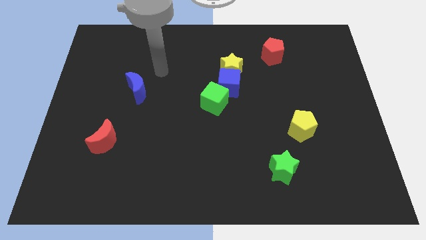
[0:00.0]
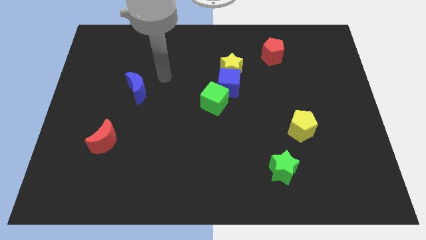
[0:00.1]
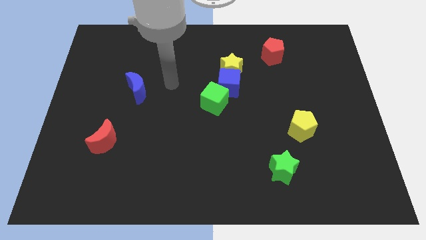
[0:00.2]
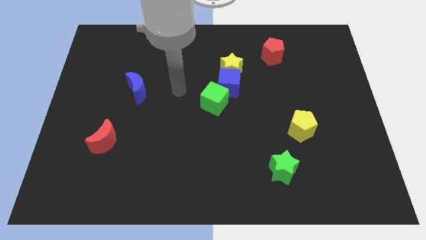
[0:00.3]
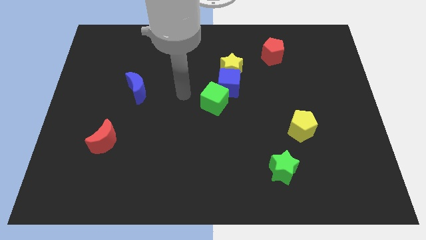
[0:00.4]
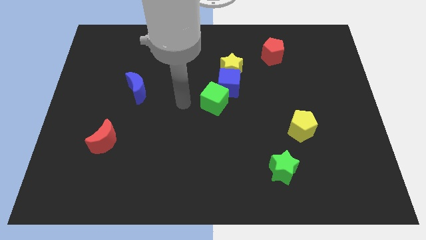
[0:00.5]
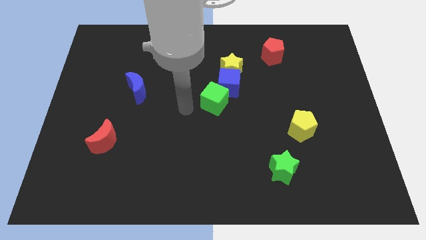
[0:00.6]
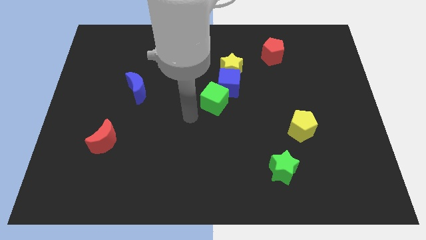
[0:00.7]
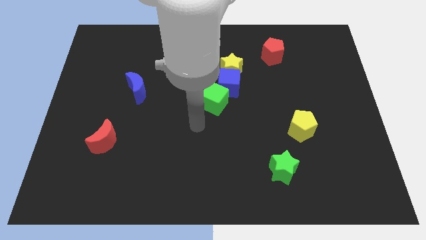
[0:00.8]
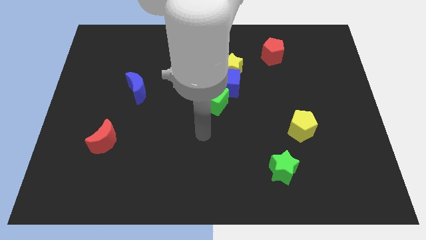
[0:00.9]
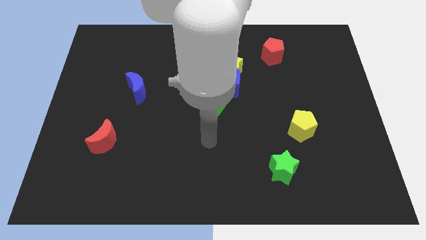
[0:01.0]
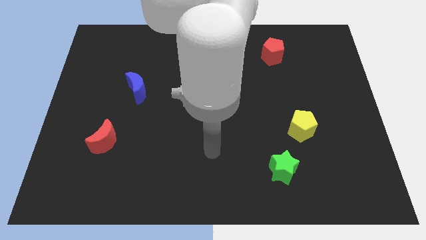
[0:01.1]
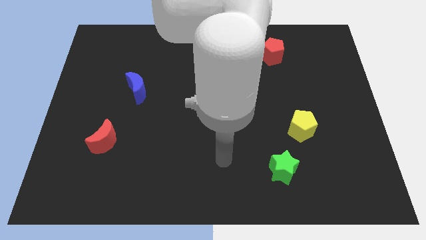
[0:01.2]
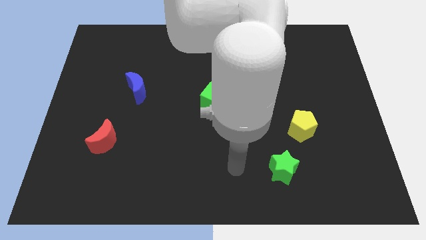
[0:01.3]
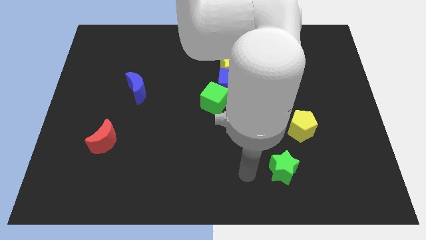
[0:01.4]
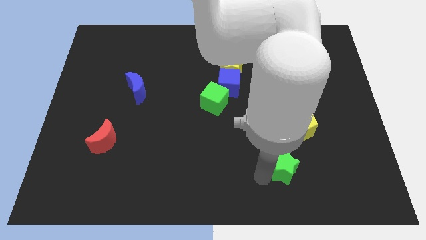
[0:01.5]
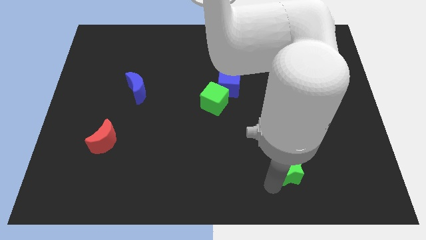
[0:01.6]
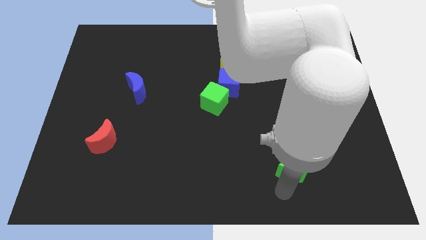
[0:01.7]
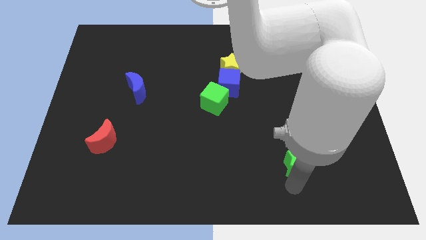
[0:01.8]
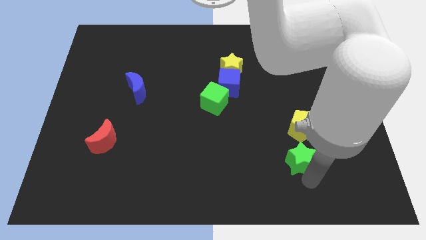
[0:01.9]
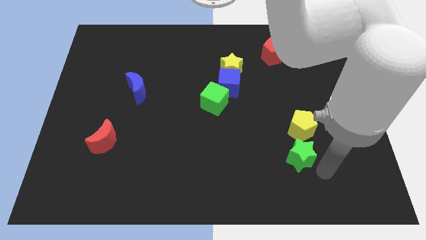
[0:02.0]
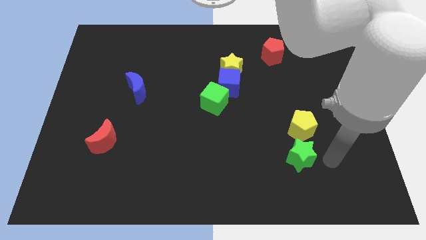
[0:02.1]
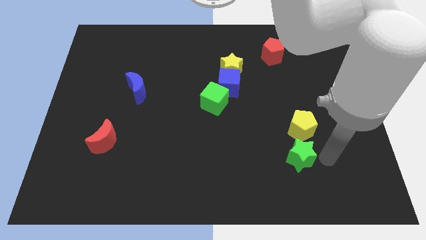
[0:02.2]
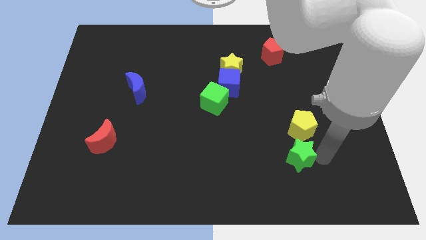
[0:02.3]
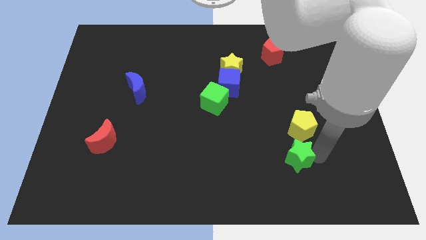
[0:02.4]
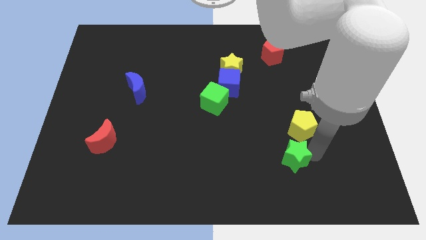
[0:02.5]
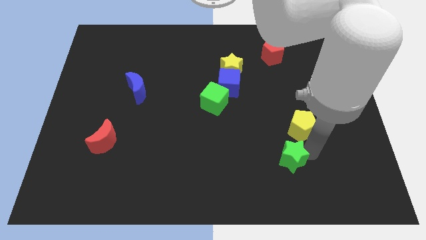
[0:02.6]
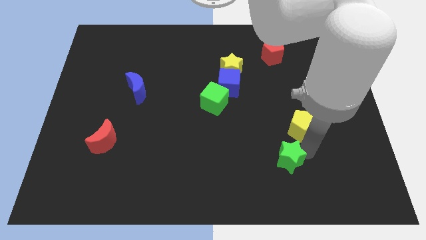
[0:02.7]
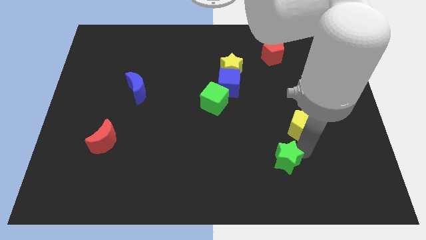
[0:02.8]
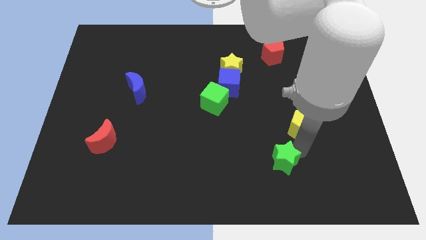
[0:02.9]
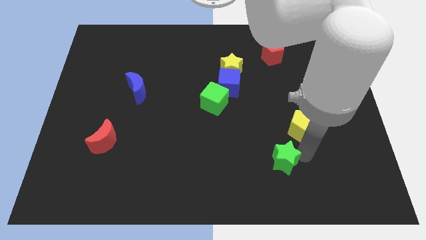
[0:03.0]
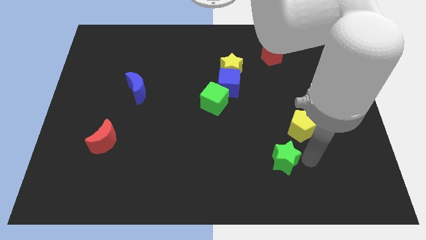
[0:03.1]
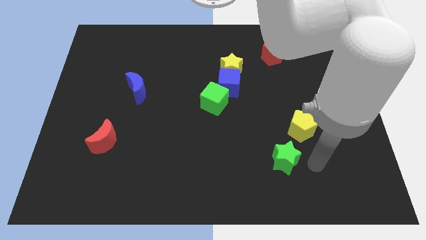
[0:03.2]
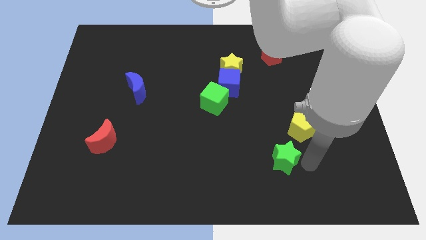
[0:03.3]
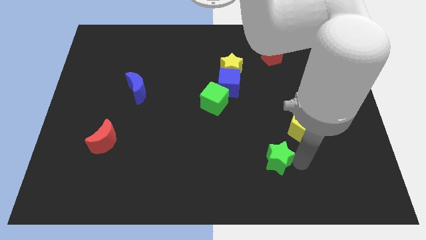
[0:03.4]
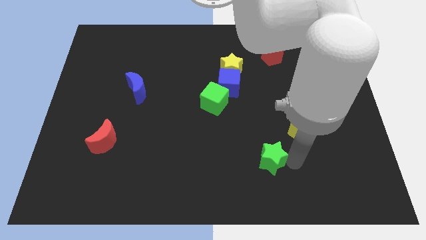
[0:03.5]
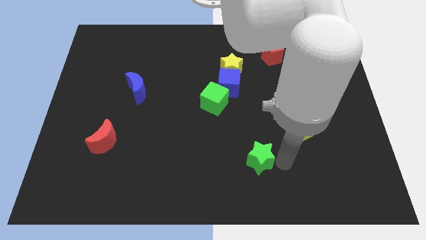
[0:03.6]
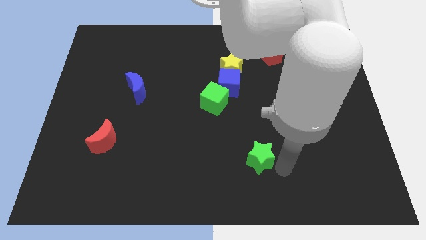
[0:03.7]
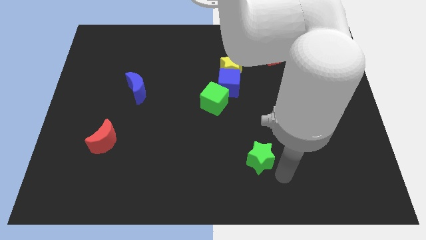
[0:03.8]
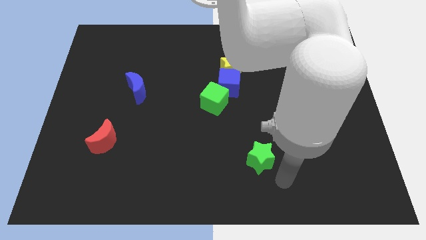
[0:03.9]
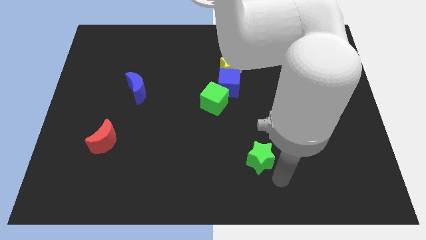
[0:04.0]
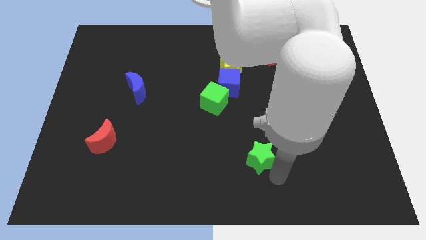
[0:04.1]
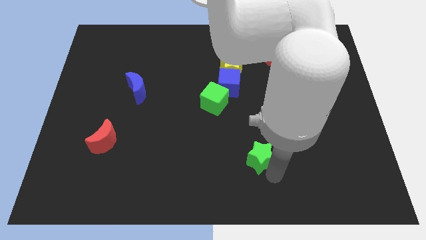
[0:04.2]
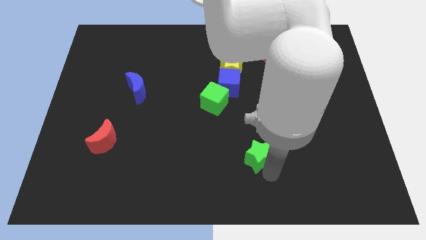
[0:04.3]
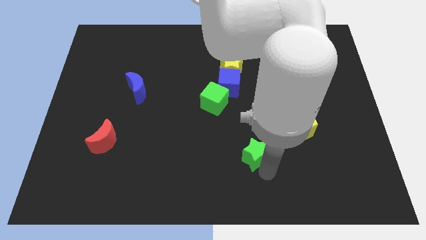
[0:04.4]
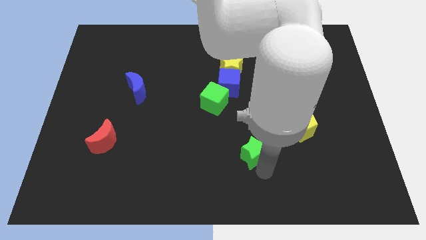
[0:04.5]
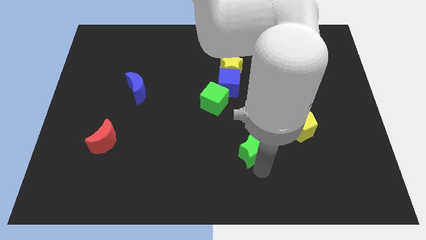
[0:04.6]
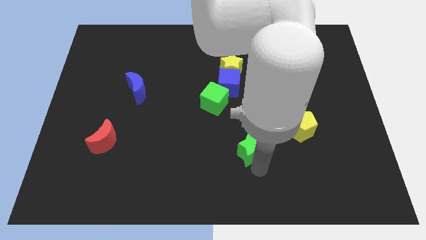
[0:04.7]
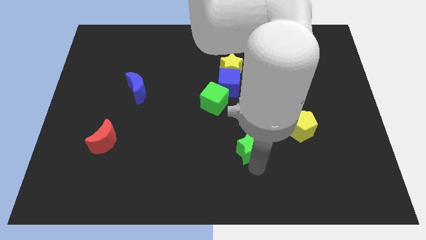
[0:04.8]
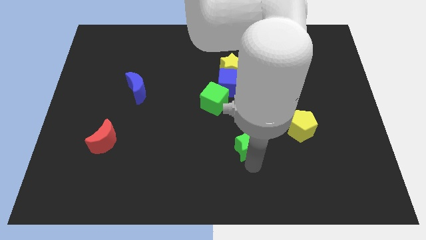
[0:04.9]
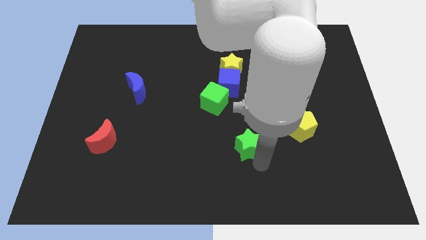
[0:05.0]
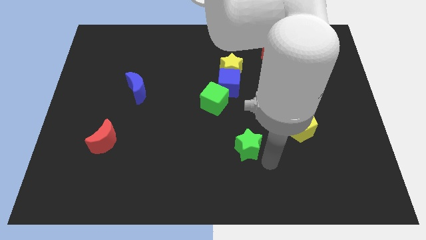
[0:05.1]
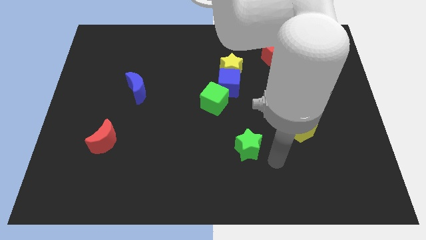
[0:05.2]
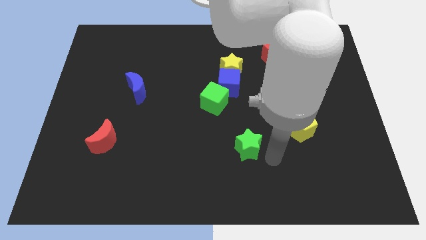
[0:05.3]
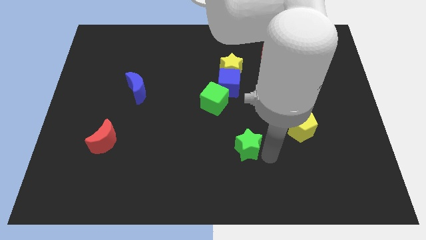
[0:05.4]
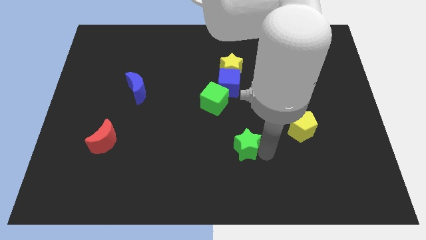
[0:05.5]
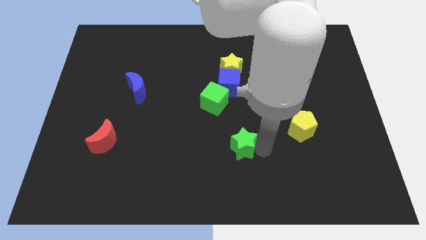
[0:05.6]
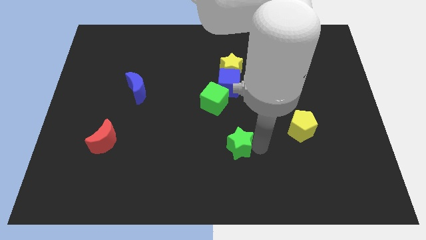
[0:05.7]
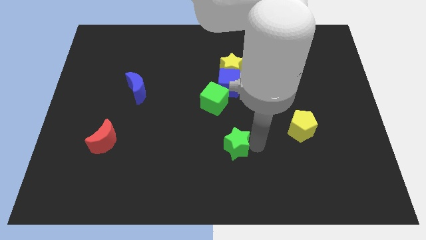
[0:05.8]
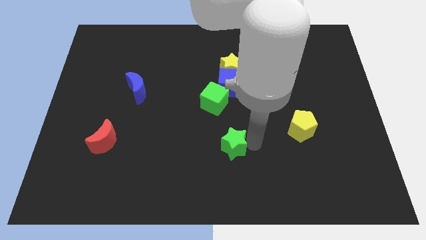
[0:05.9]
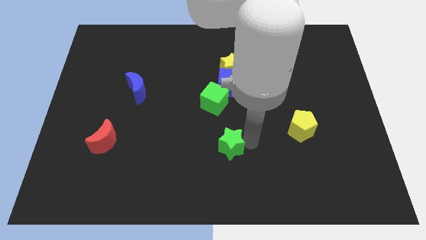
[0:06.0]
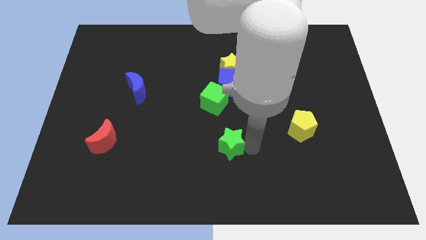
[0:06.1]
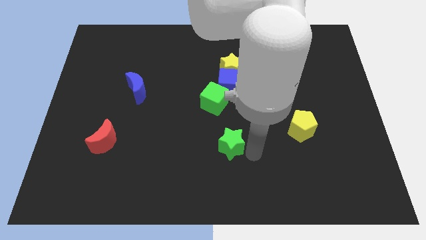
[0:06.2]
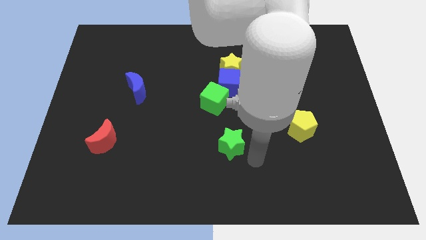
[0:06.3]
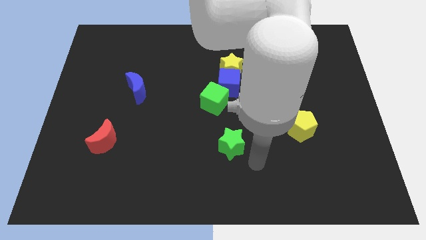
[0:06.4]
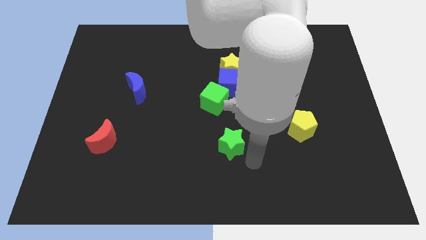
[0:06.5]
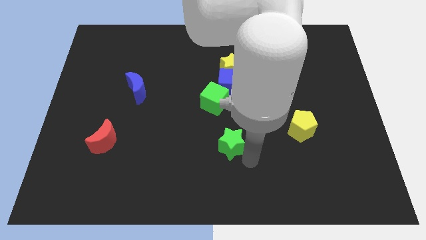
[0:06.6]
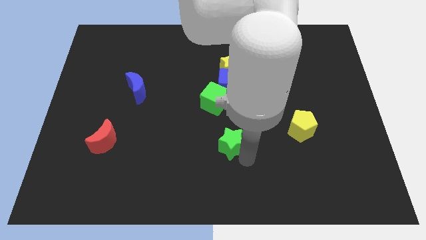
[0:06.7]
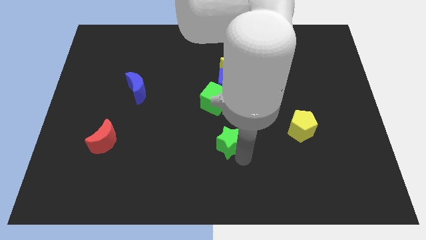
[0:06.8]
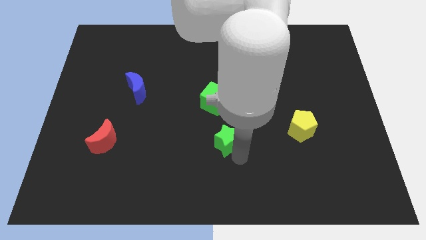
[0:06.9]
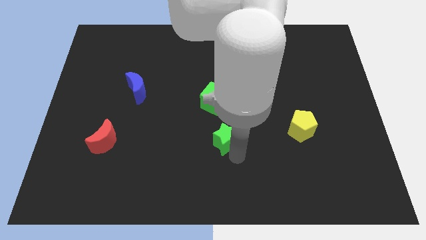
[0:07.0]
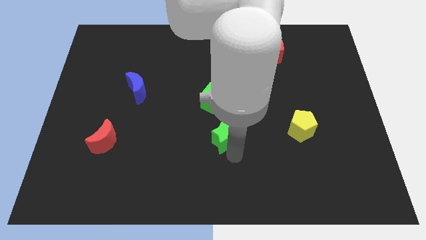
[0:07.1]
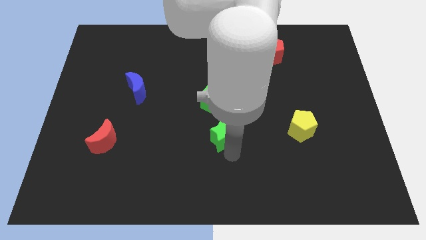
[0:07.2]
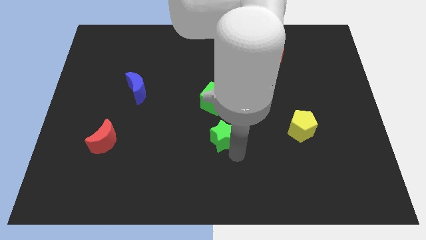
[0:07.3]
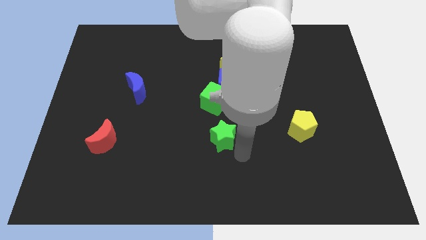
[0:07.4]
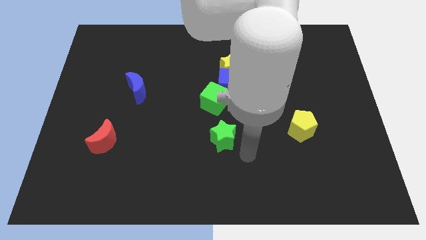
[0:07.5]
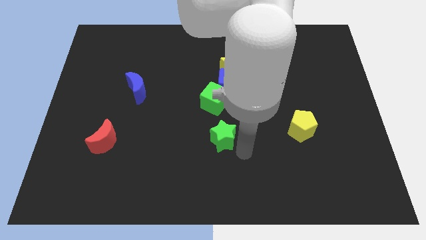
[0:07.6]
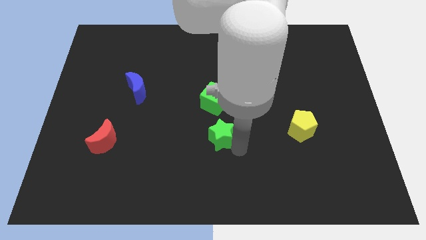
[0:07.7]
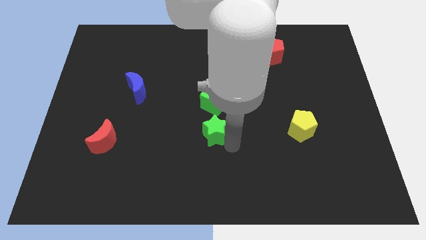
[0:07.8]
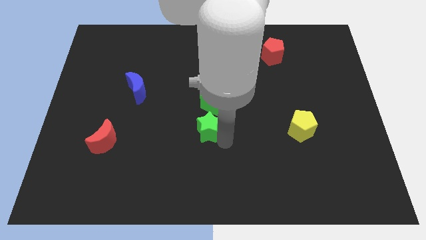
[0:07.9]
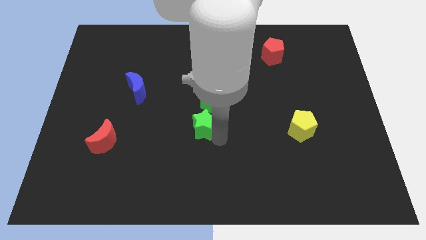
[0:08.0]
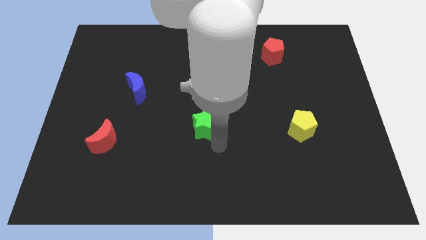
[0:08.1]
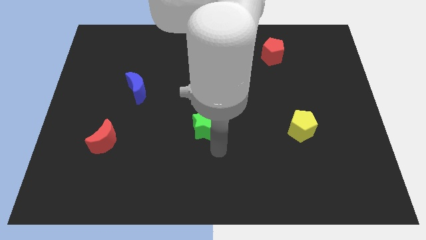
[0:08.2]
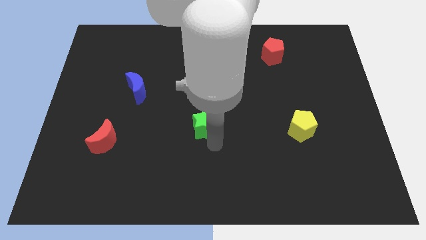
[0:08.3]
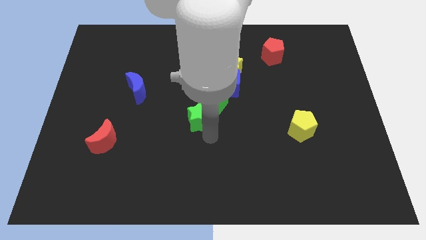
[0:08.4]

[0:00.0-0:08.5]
move the green star upwards and then left
